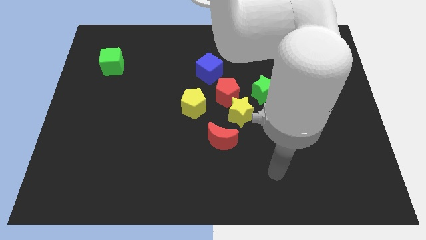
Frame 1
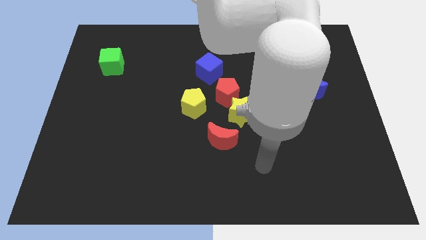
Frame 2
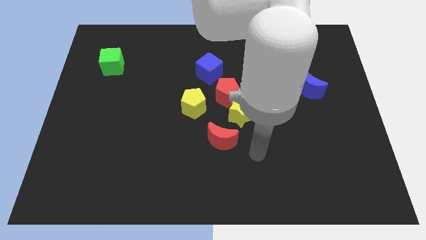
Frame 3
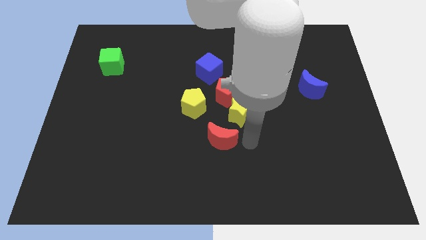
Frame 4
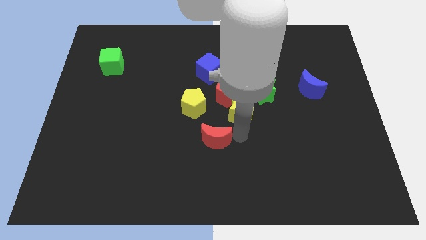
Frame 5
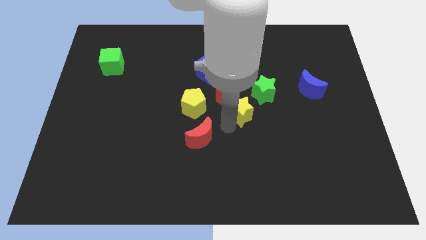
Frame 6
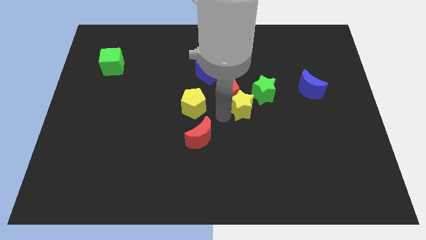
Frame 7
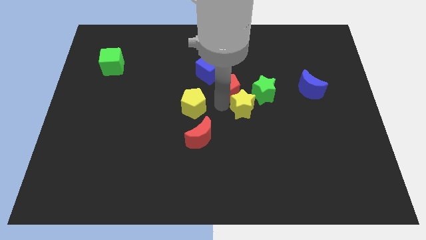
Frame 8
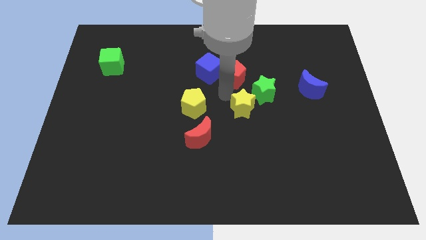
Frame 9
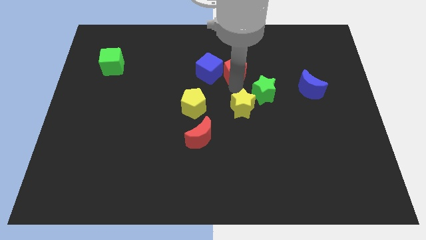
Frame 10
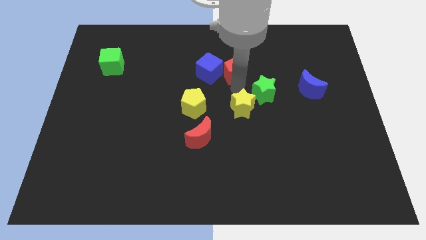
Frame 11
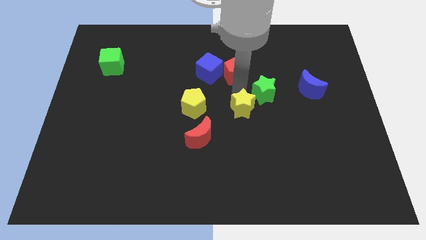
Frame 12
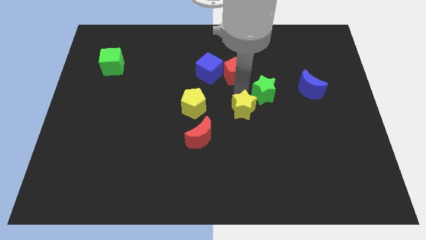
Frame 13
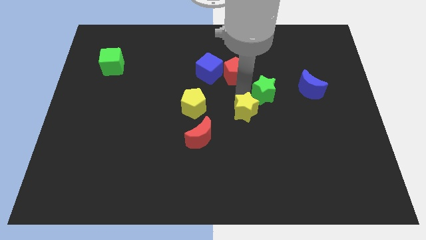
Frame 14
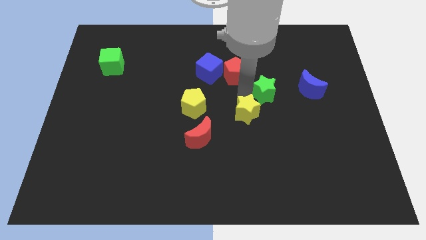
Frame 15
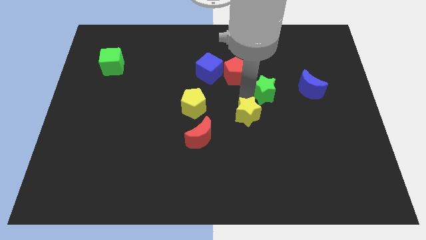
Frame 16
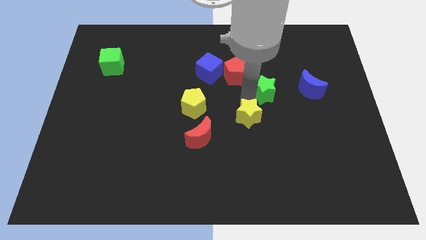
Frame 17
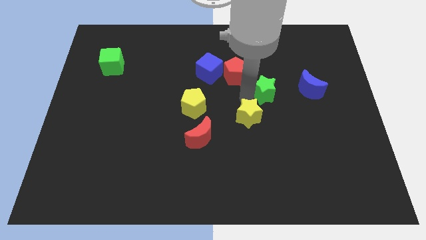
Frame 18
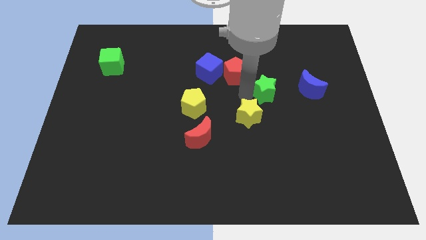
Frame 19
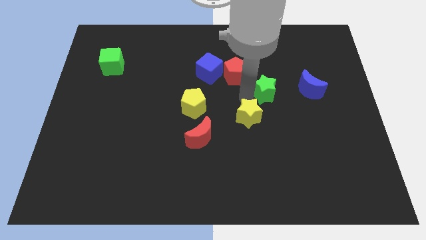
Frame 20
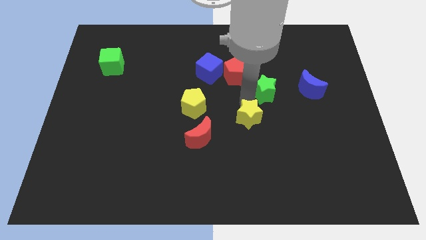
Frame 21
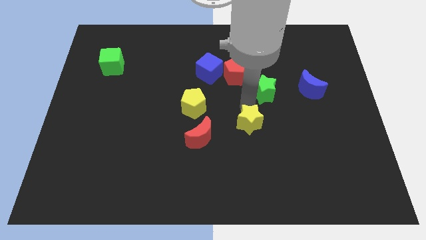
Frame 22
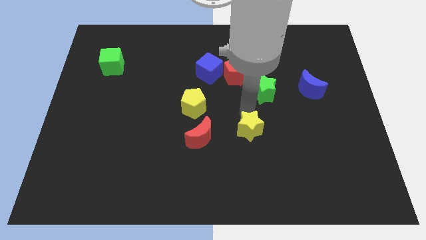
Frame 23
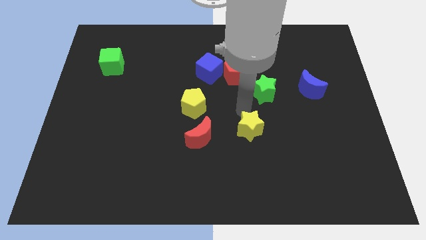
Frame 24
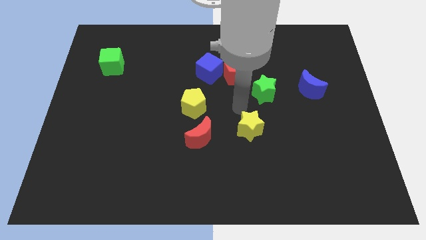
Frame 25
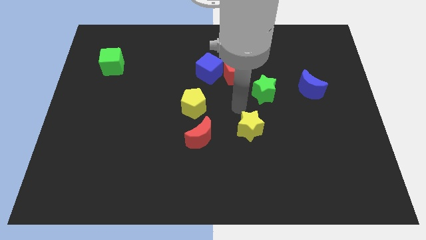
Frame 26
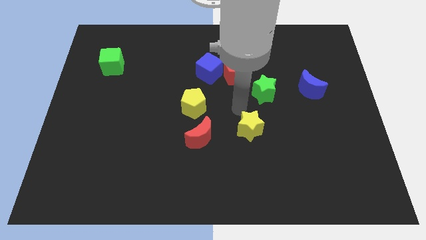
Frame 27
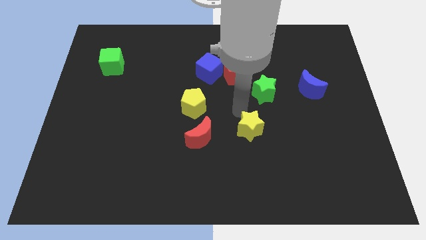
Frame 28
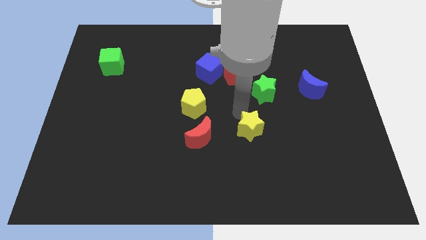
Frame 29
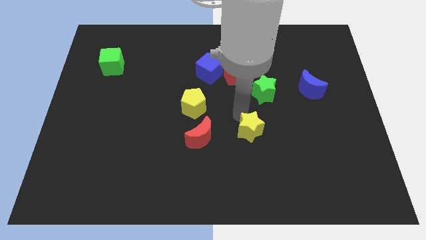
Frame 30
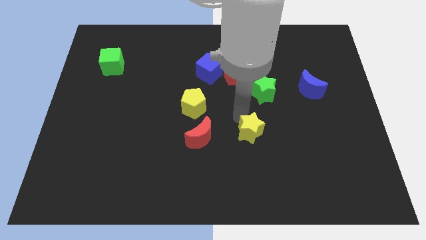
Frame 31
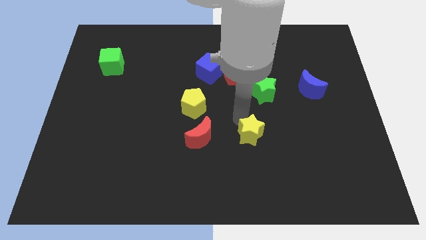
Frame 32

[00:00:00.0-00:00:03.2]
move the yellow star away from the group of blocks

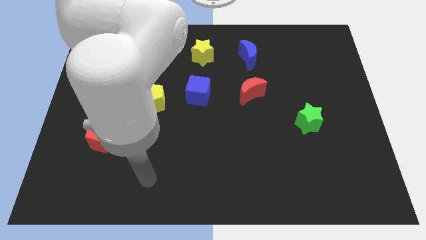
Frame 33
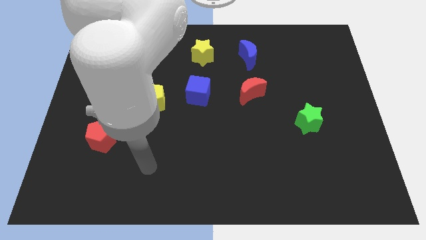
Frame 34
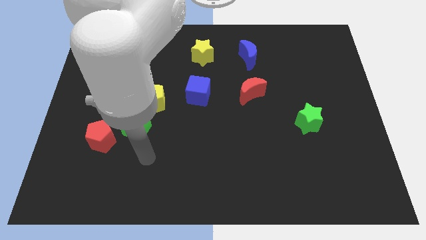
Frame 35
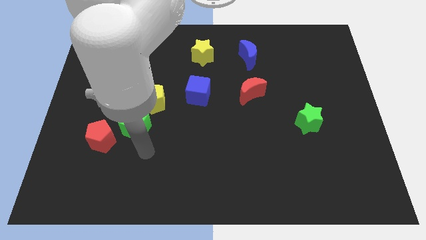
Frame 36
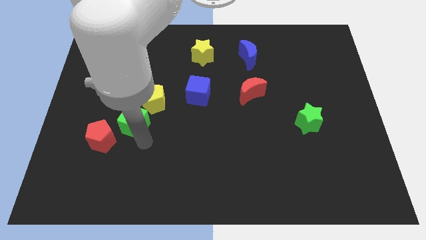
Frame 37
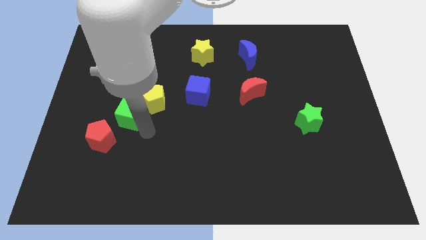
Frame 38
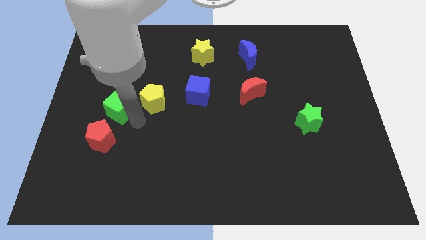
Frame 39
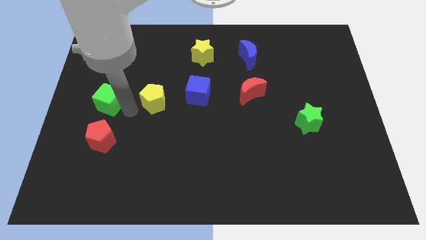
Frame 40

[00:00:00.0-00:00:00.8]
separate the yellow pentagon from the green cube

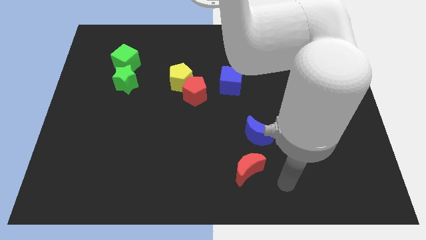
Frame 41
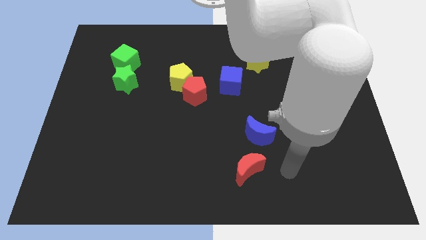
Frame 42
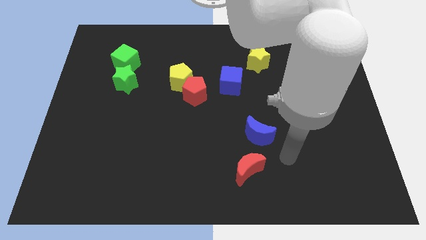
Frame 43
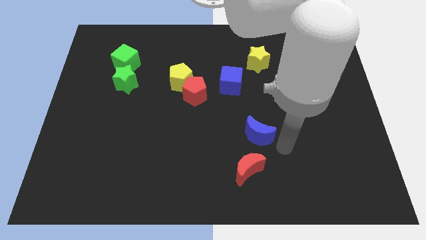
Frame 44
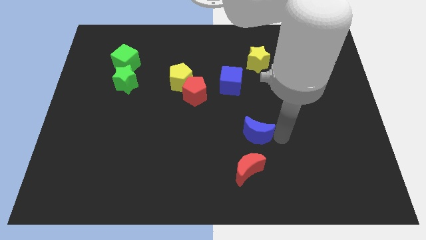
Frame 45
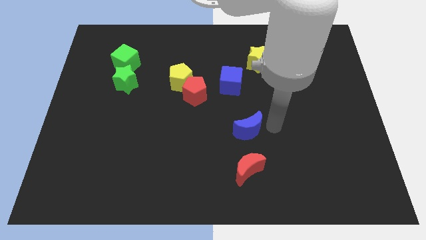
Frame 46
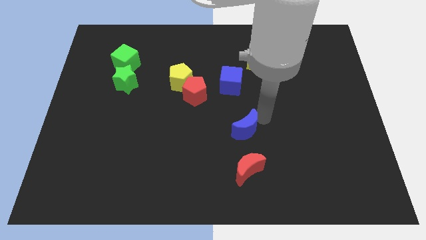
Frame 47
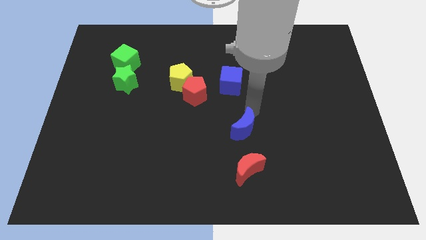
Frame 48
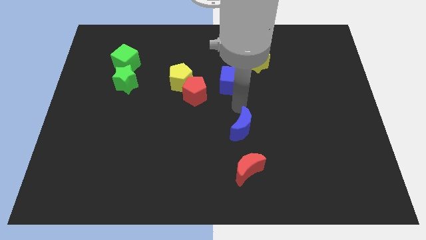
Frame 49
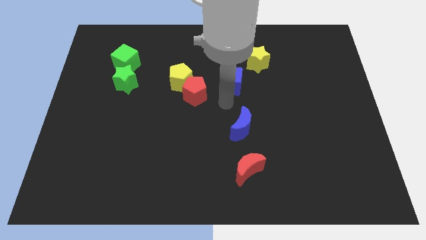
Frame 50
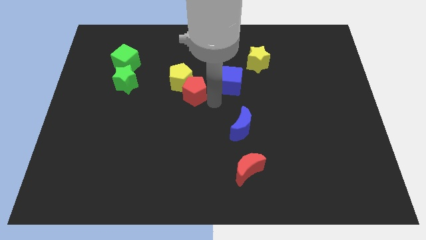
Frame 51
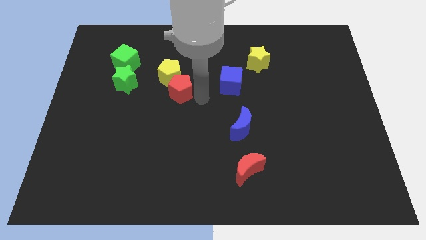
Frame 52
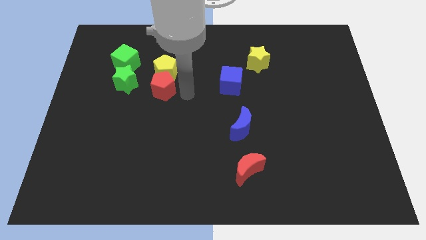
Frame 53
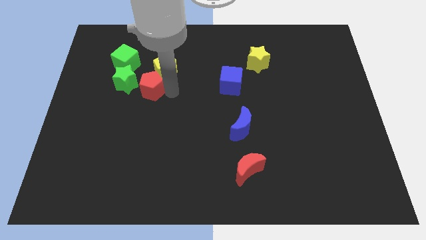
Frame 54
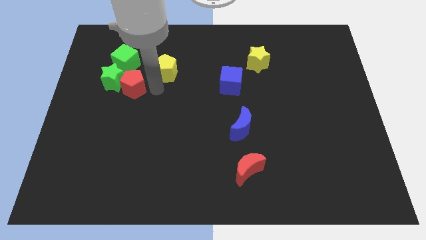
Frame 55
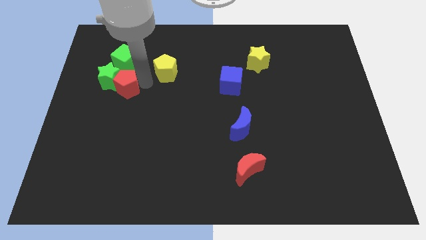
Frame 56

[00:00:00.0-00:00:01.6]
move the yellow pentagon away from the red pentagon

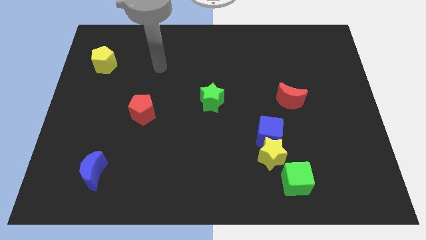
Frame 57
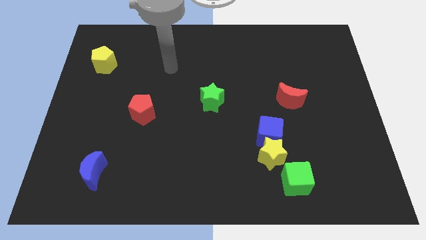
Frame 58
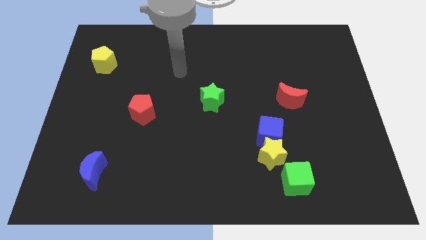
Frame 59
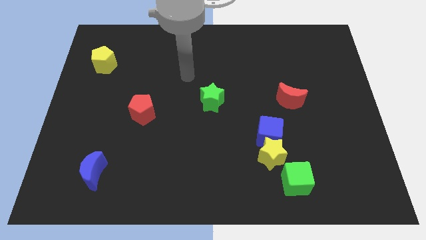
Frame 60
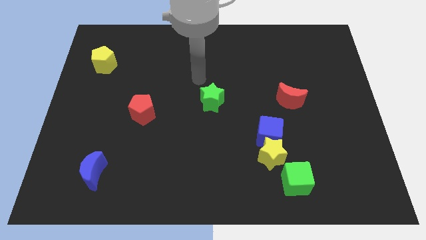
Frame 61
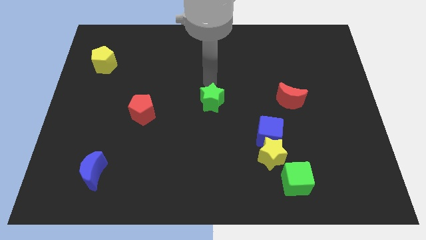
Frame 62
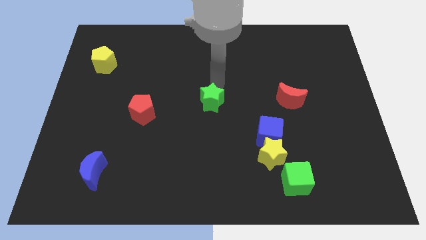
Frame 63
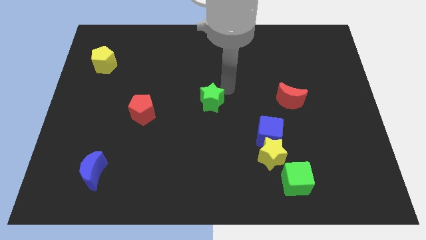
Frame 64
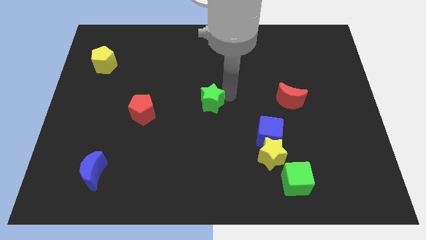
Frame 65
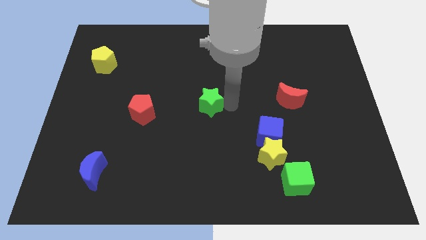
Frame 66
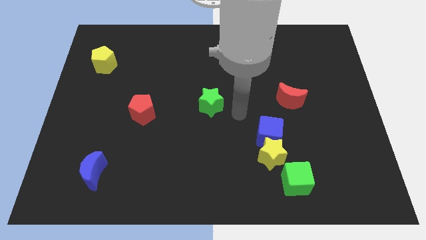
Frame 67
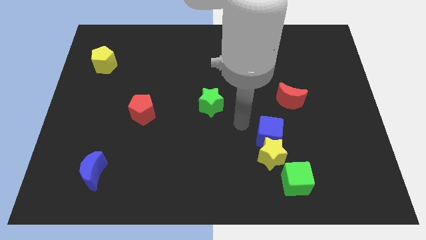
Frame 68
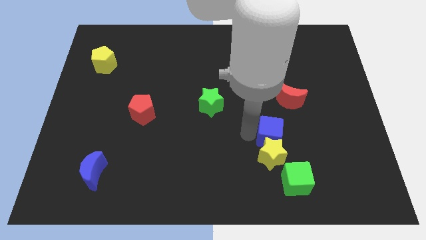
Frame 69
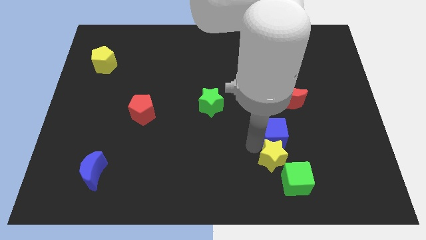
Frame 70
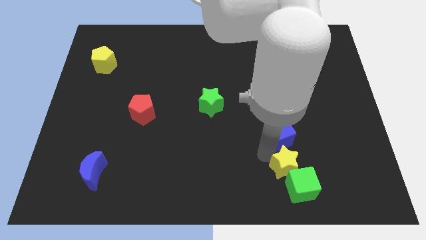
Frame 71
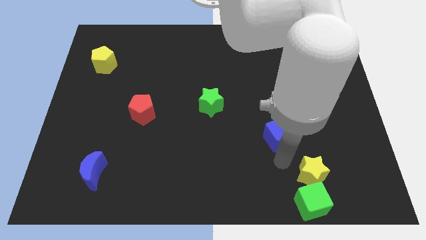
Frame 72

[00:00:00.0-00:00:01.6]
separate the blue cube from the yellow star

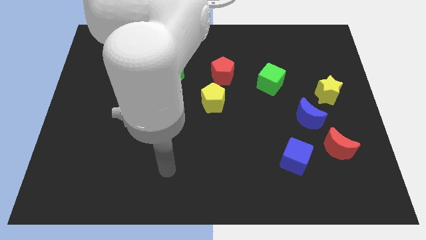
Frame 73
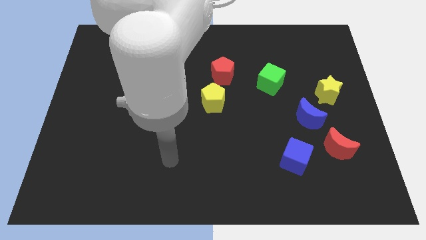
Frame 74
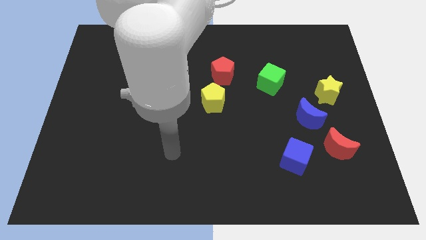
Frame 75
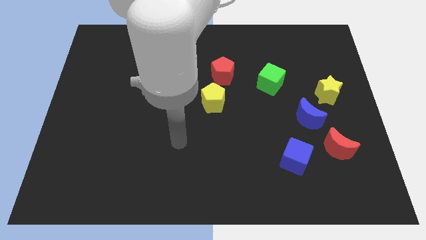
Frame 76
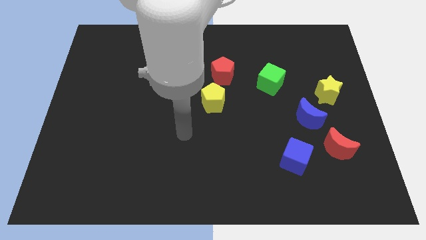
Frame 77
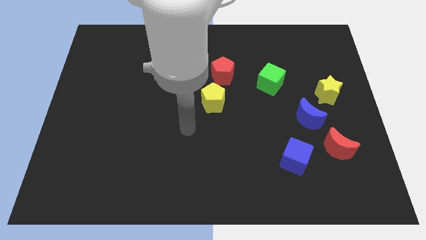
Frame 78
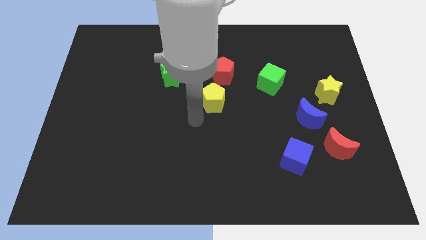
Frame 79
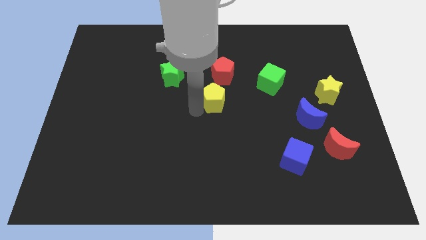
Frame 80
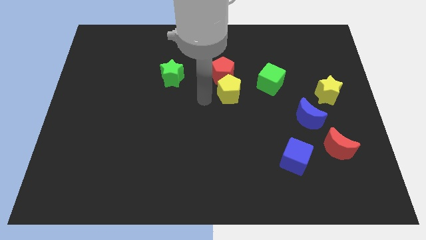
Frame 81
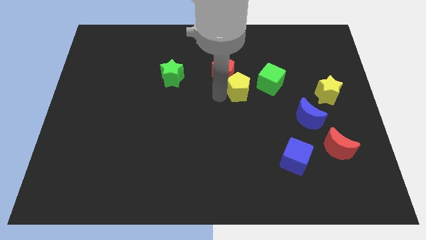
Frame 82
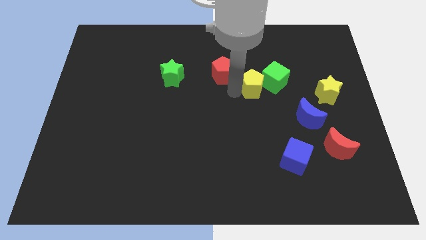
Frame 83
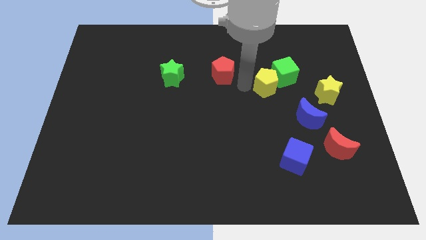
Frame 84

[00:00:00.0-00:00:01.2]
pull the red pentagon apart from the yellow pentagon

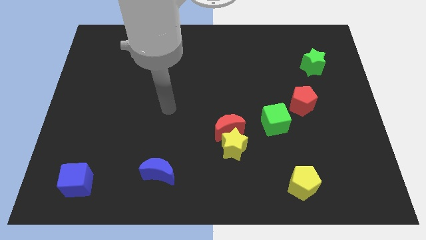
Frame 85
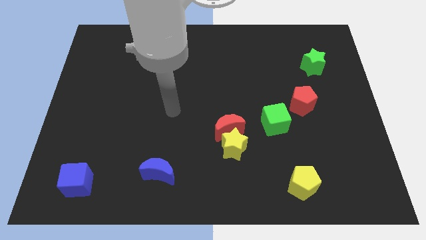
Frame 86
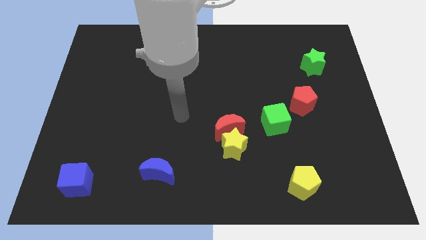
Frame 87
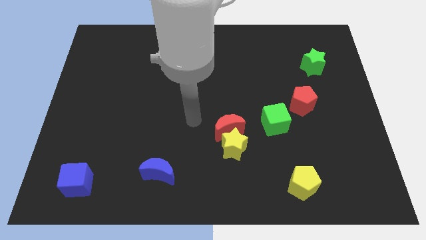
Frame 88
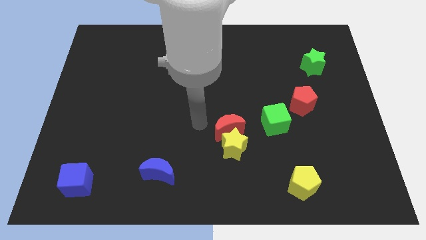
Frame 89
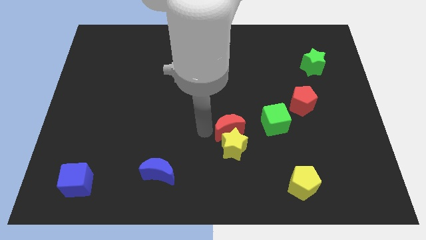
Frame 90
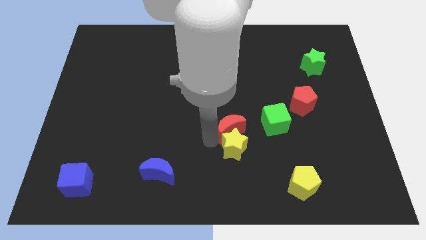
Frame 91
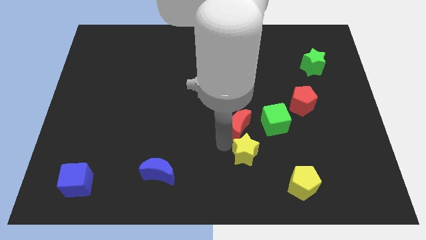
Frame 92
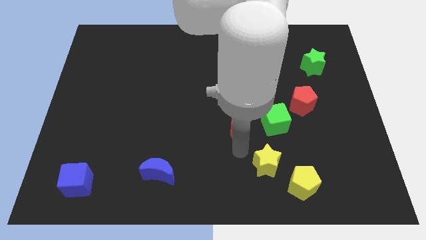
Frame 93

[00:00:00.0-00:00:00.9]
pull the red moon apart from the yellow star
